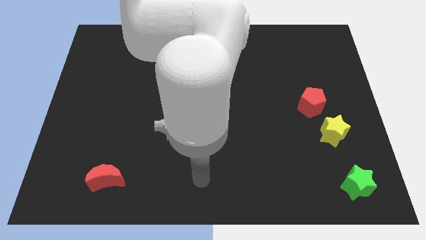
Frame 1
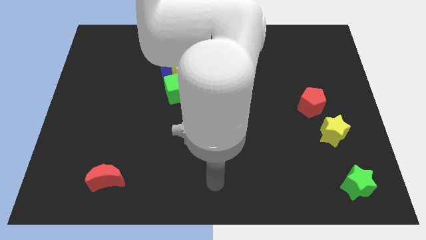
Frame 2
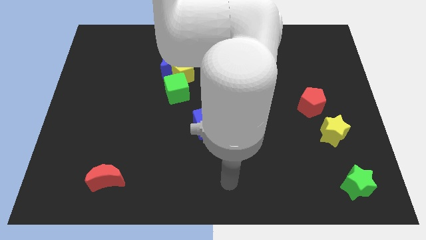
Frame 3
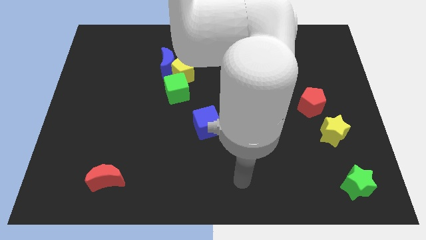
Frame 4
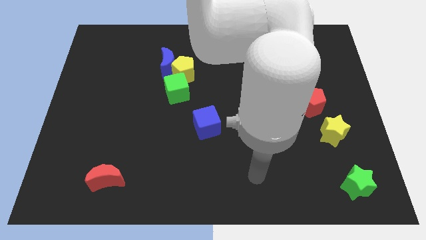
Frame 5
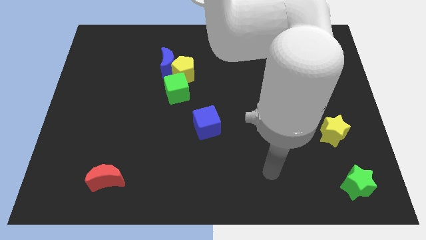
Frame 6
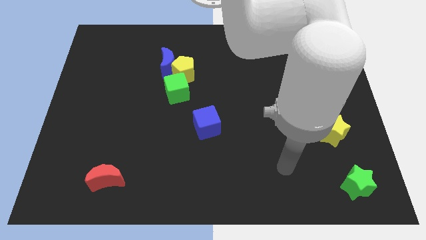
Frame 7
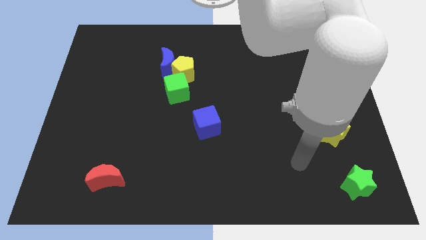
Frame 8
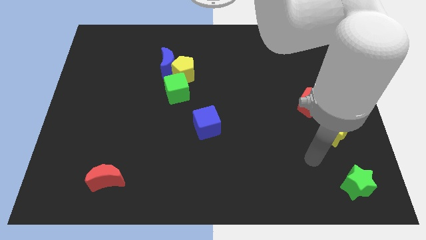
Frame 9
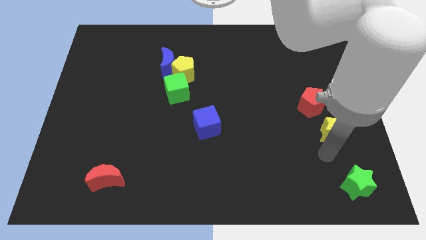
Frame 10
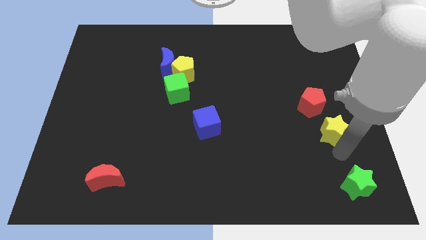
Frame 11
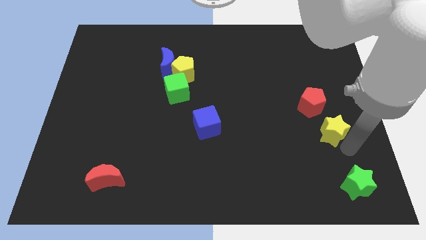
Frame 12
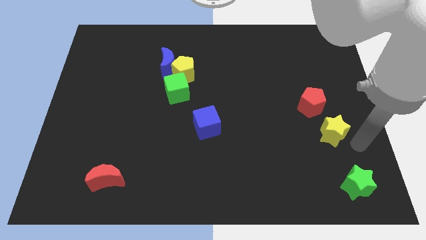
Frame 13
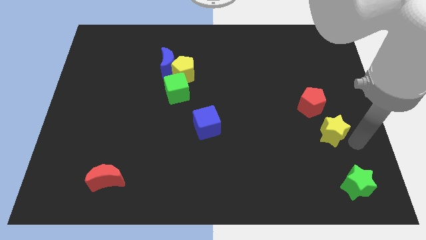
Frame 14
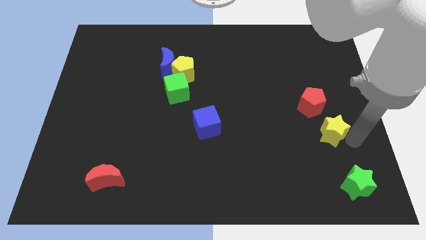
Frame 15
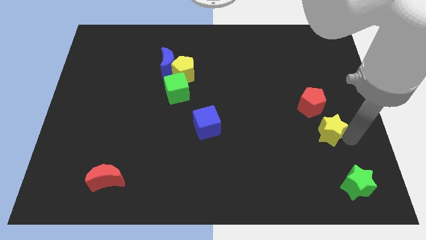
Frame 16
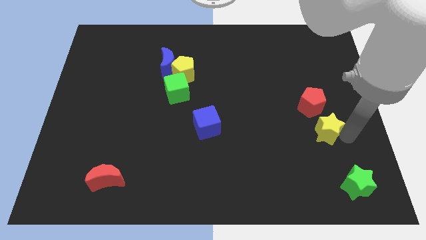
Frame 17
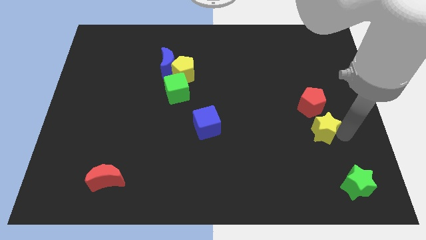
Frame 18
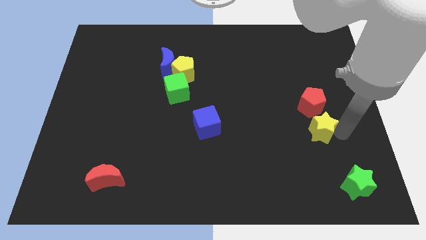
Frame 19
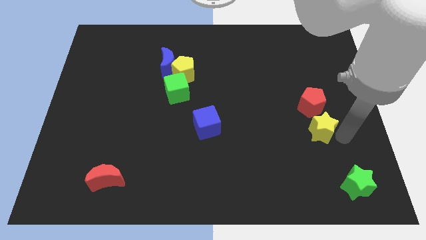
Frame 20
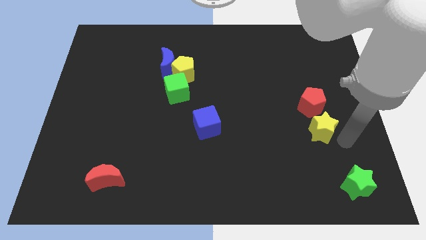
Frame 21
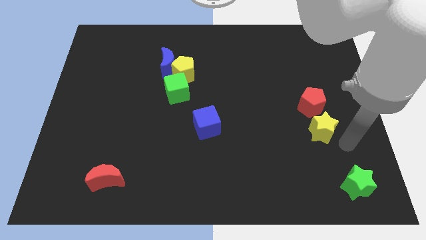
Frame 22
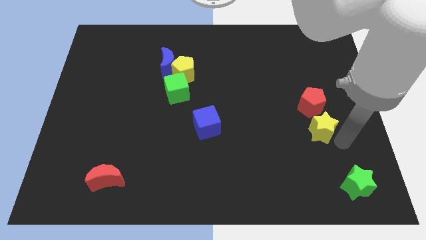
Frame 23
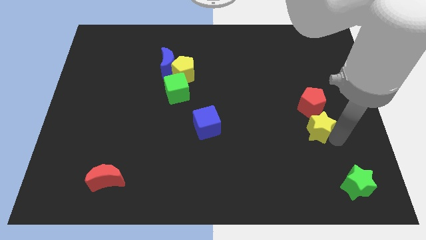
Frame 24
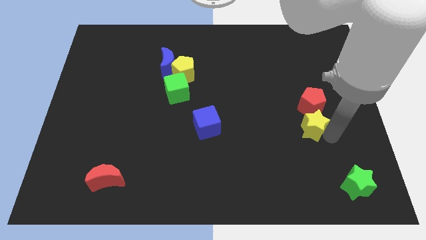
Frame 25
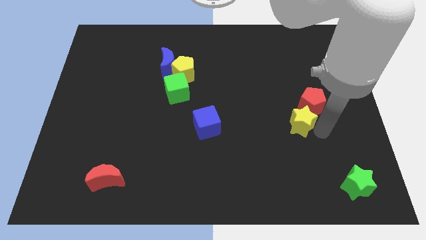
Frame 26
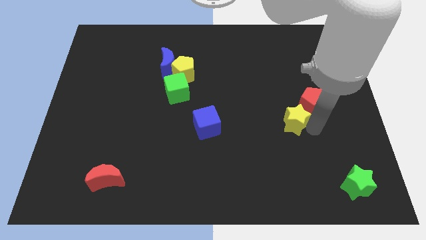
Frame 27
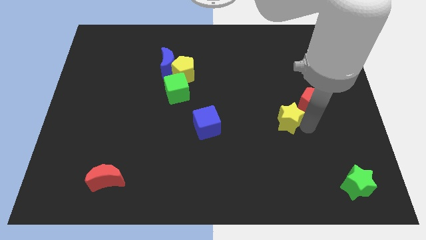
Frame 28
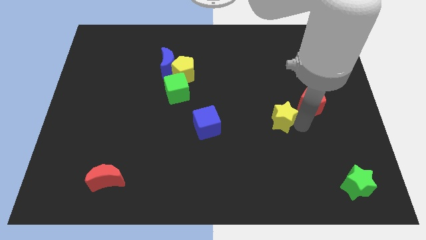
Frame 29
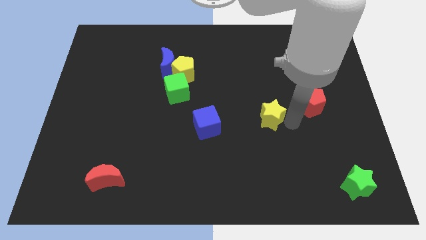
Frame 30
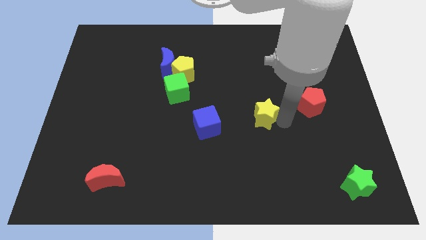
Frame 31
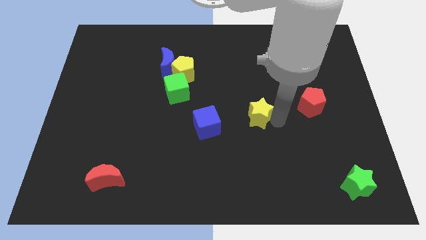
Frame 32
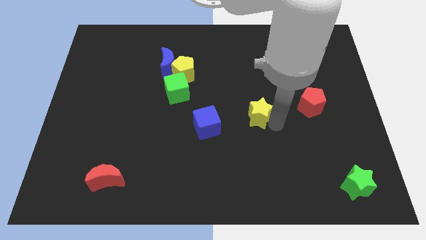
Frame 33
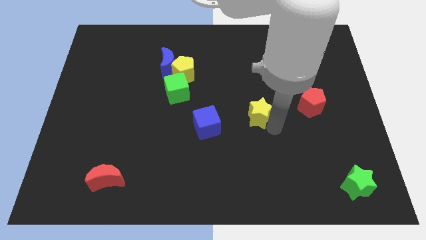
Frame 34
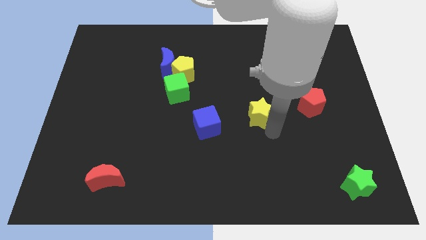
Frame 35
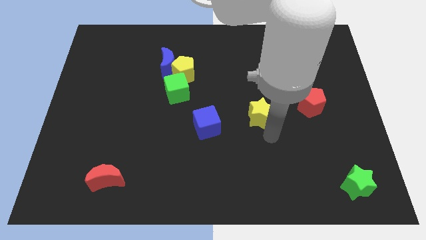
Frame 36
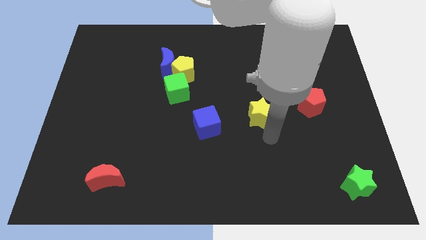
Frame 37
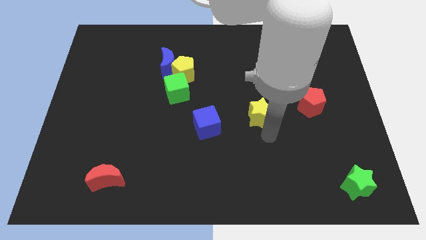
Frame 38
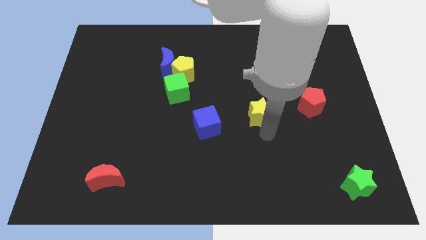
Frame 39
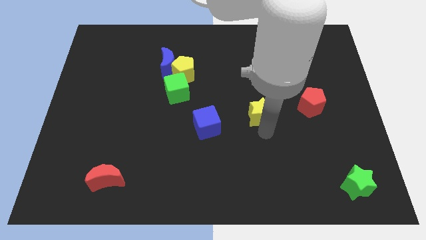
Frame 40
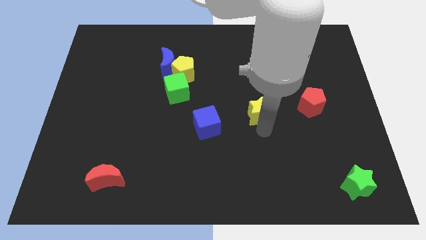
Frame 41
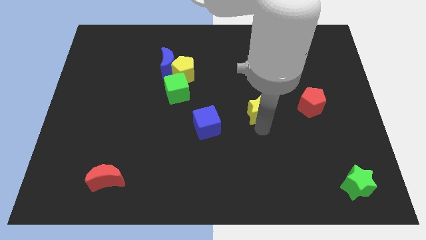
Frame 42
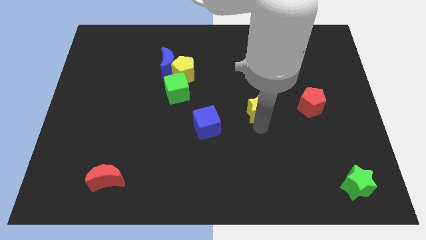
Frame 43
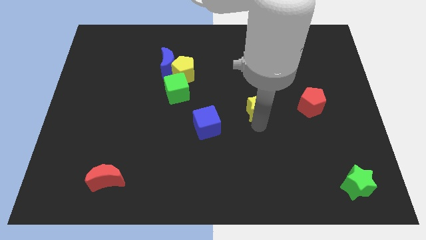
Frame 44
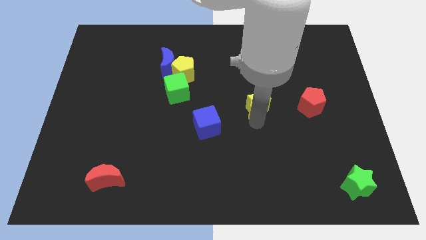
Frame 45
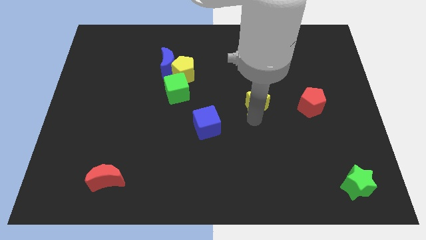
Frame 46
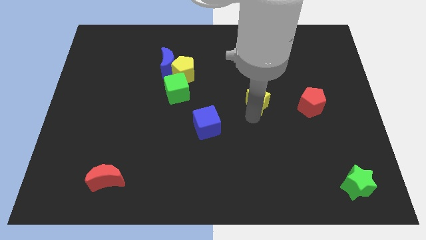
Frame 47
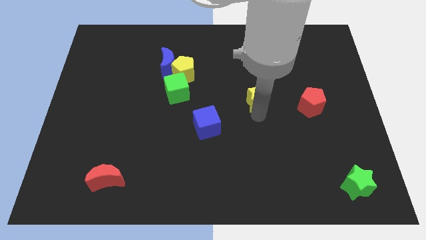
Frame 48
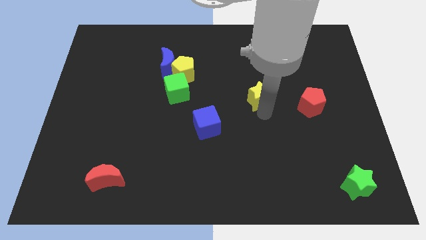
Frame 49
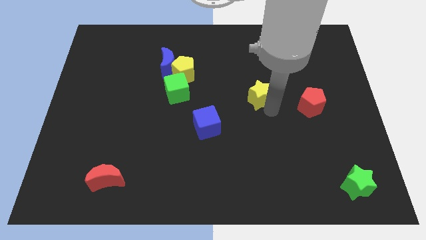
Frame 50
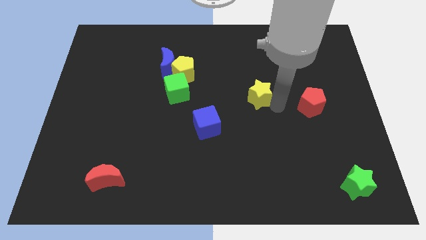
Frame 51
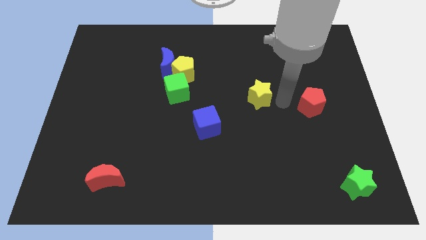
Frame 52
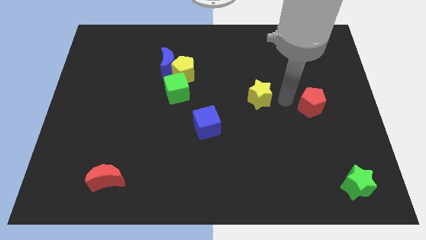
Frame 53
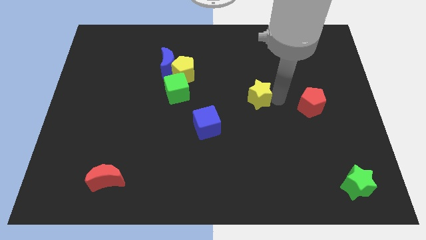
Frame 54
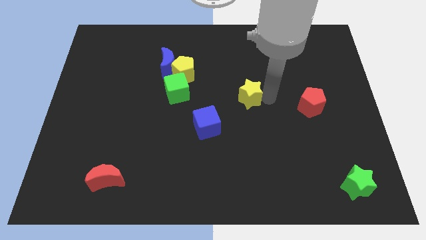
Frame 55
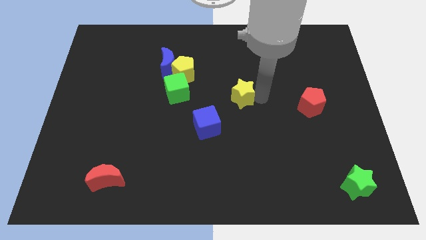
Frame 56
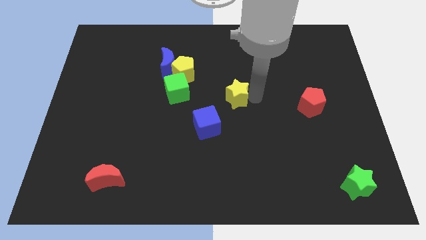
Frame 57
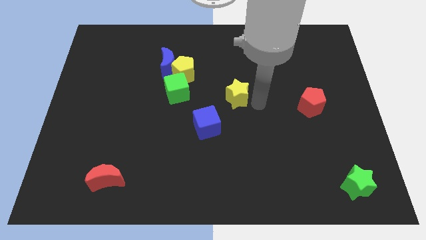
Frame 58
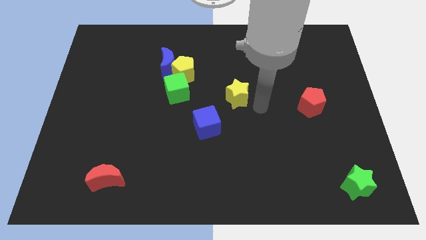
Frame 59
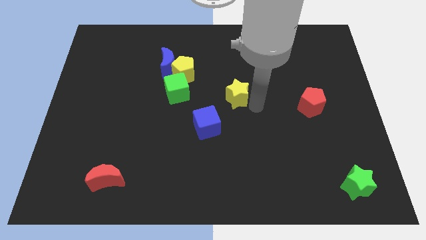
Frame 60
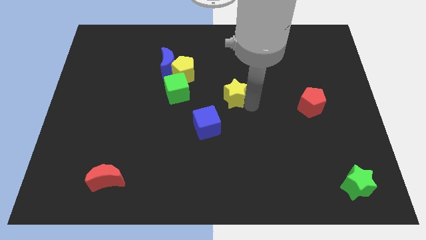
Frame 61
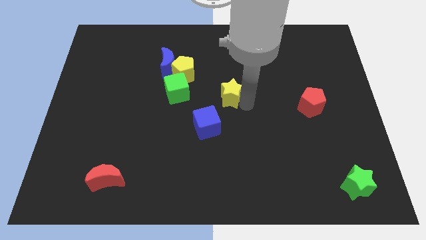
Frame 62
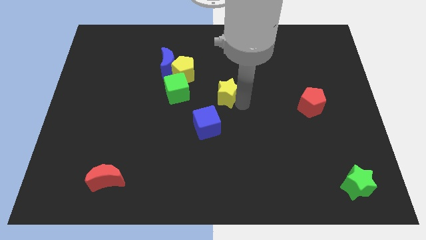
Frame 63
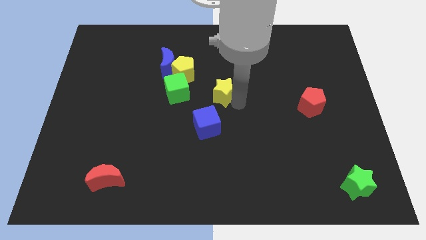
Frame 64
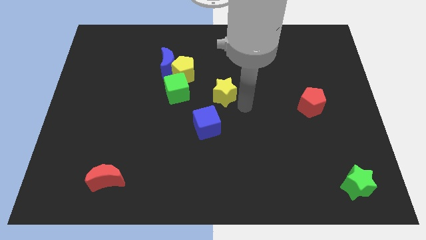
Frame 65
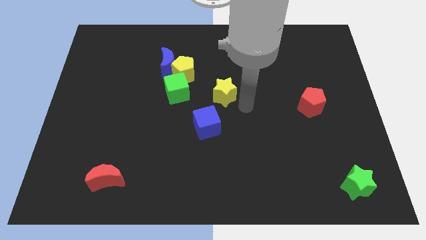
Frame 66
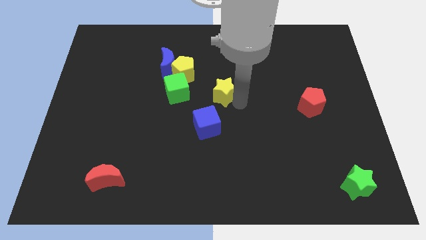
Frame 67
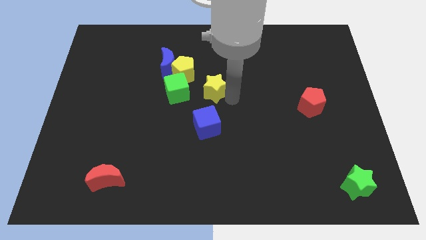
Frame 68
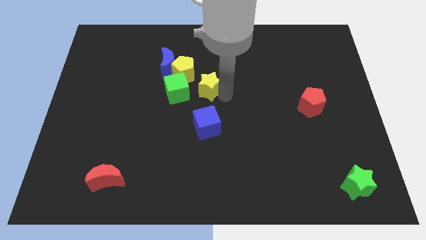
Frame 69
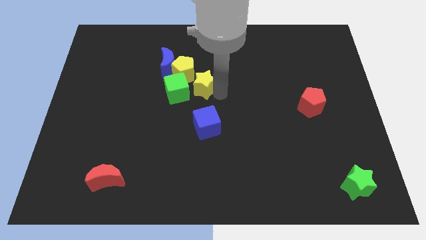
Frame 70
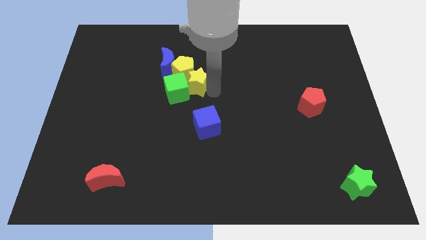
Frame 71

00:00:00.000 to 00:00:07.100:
slide the yellow star next to the yellow pentagon

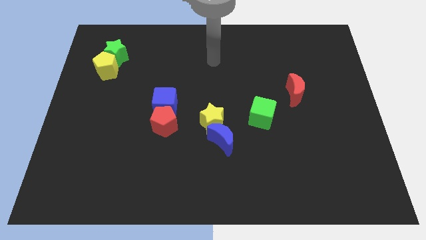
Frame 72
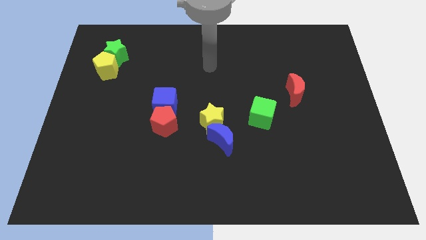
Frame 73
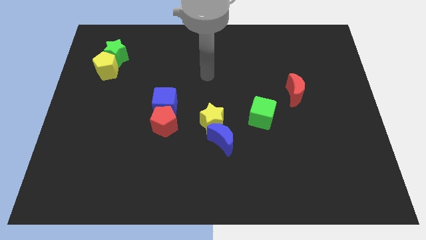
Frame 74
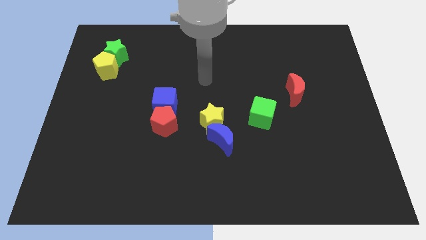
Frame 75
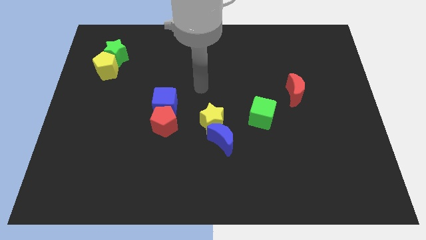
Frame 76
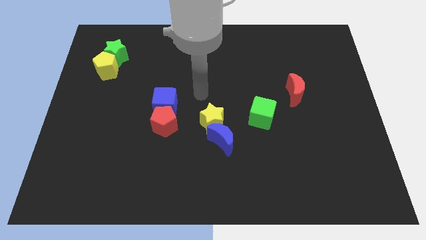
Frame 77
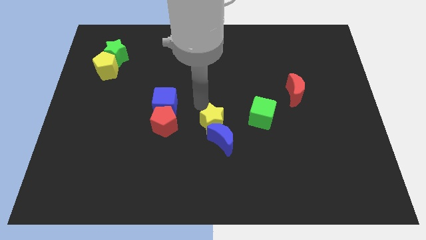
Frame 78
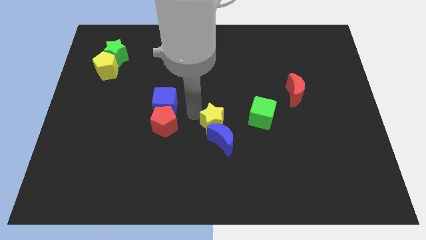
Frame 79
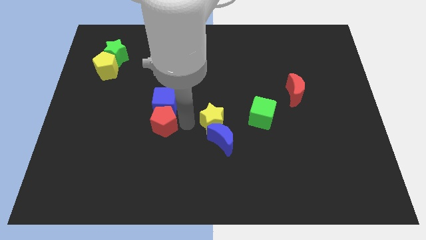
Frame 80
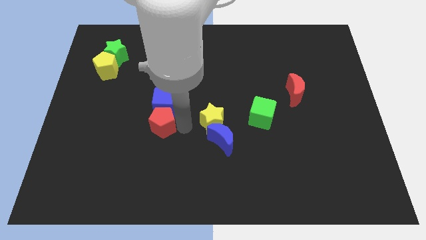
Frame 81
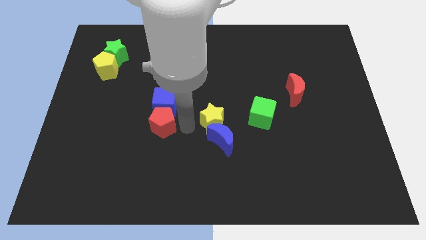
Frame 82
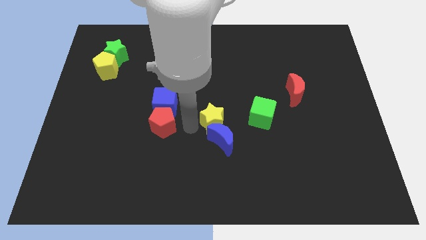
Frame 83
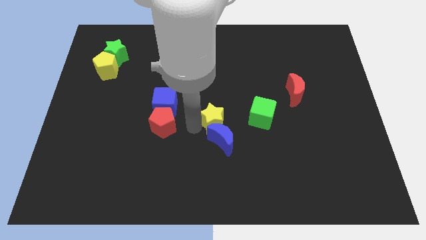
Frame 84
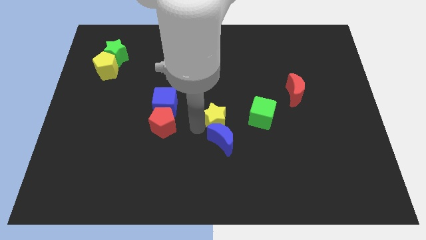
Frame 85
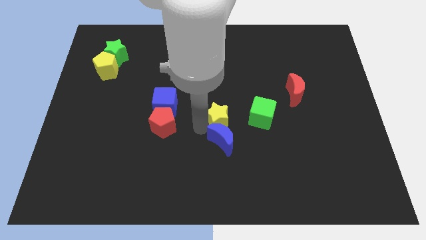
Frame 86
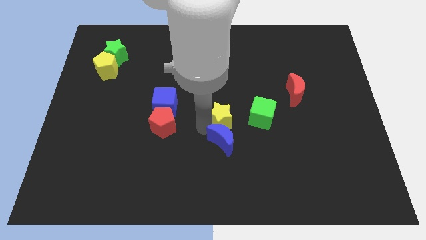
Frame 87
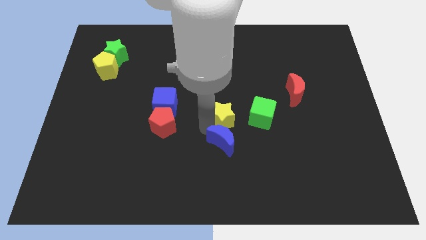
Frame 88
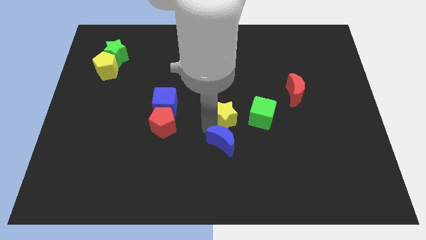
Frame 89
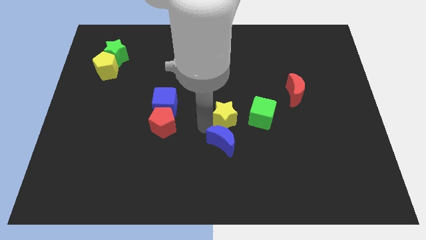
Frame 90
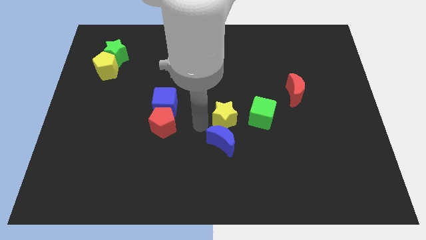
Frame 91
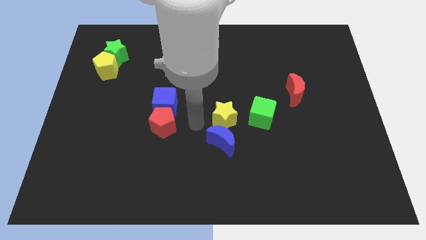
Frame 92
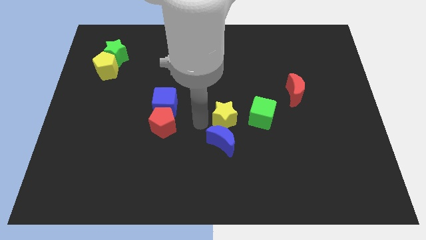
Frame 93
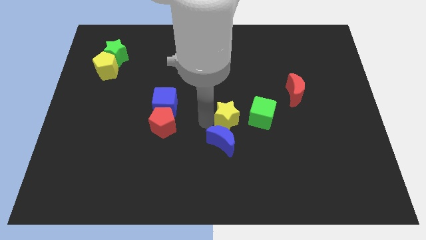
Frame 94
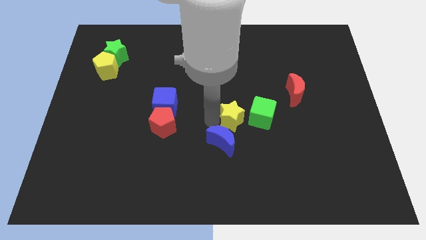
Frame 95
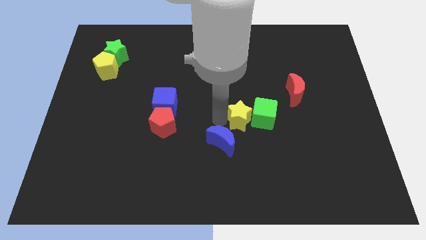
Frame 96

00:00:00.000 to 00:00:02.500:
push the yellow star next to the green cube
